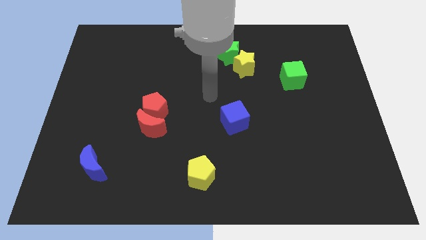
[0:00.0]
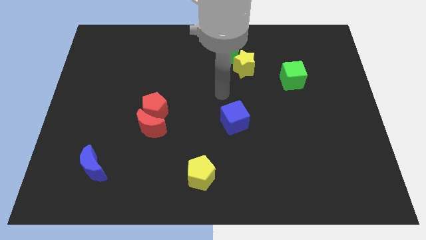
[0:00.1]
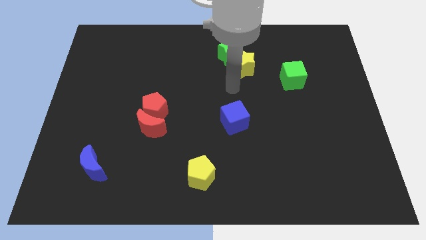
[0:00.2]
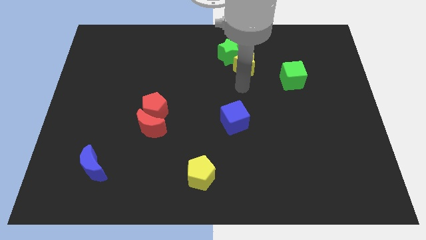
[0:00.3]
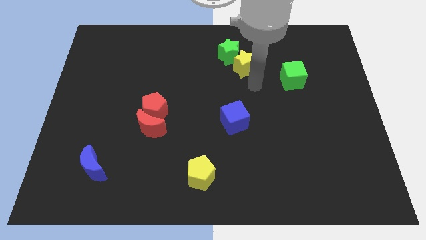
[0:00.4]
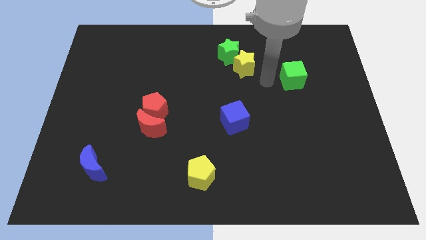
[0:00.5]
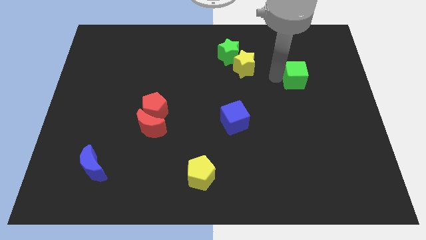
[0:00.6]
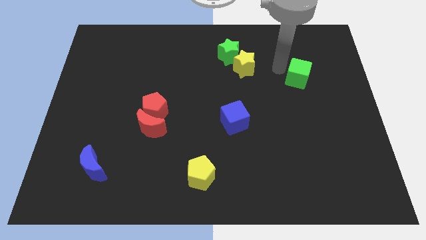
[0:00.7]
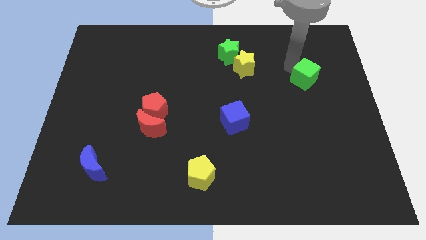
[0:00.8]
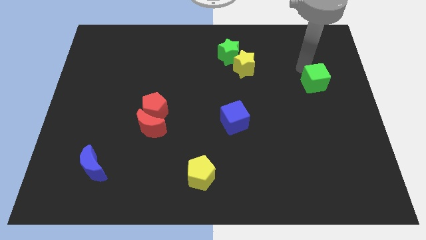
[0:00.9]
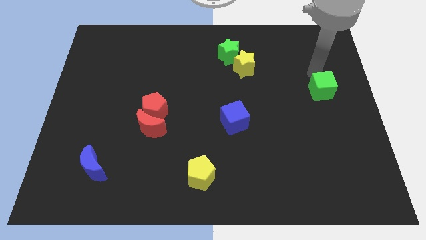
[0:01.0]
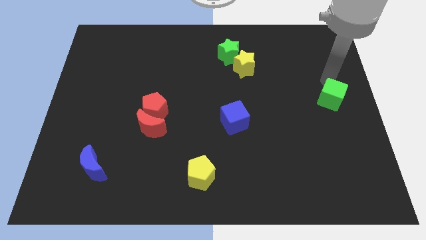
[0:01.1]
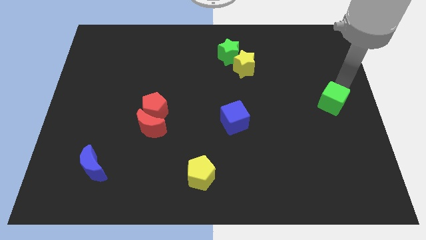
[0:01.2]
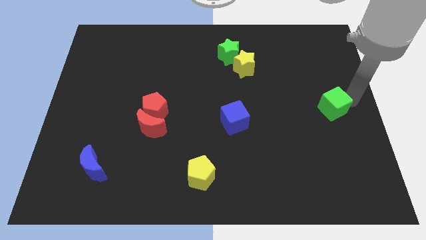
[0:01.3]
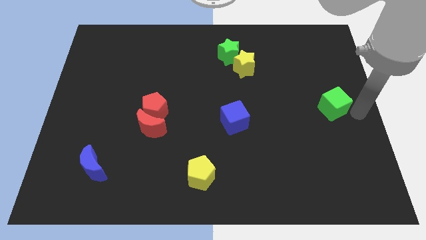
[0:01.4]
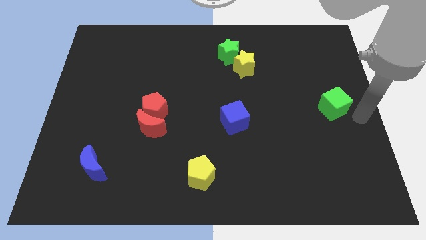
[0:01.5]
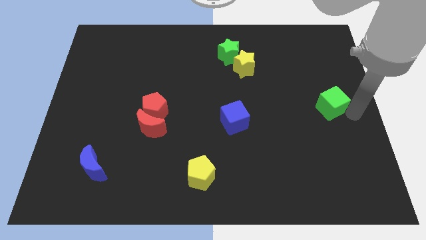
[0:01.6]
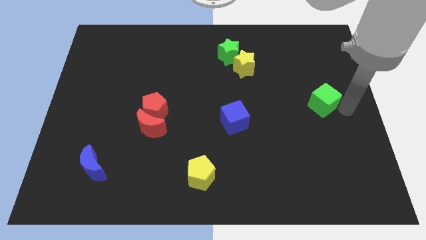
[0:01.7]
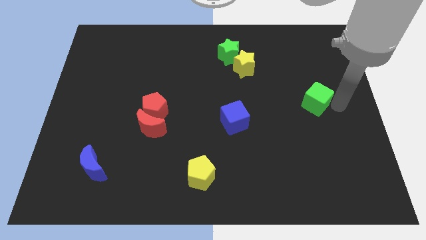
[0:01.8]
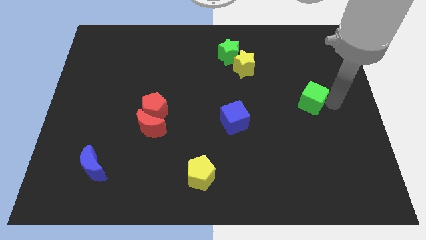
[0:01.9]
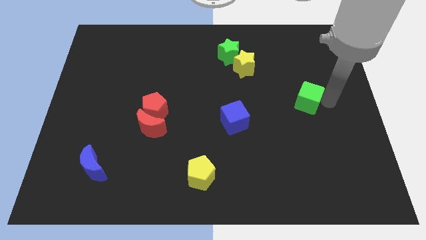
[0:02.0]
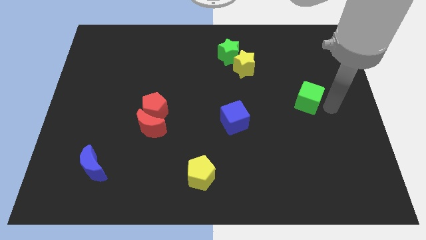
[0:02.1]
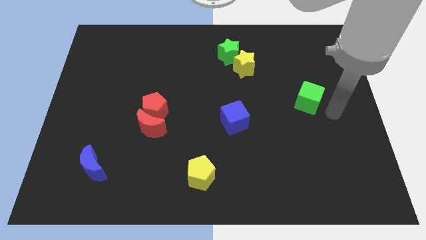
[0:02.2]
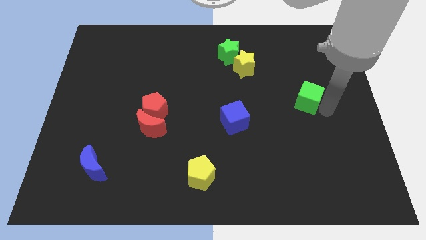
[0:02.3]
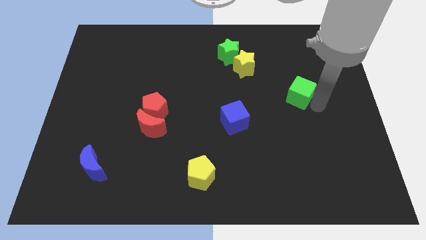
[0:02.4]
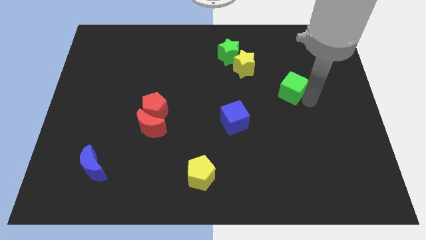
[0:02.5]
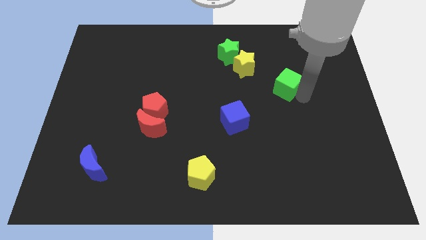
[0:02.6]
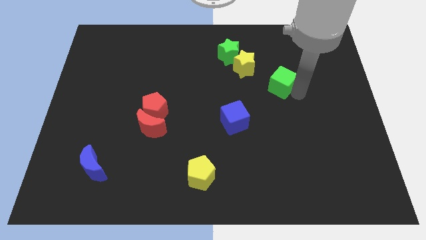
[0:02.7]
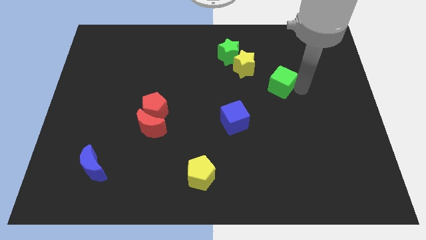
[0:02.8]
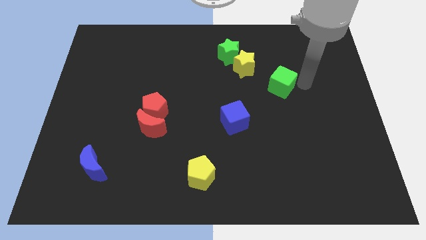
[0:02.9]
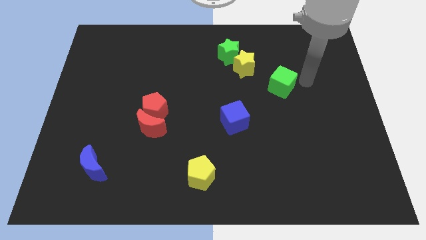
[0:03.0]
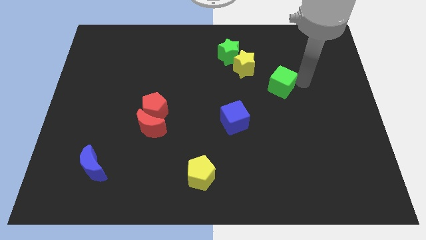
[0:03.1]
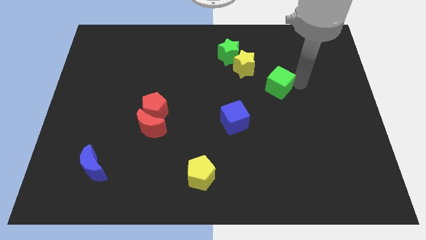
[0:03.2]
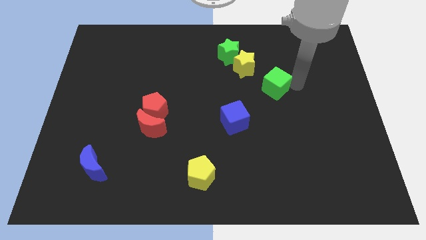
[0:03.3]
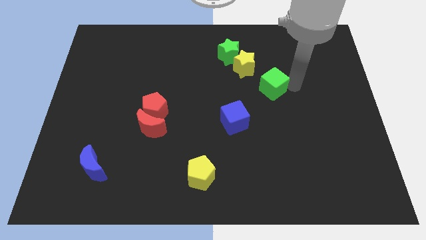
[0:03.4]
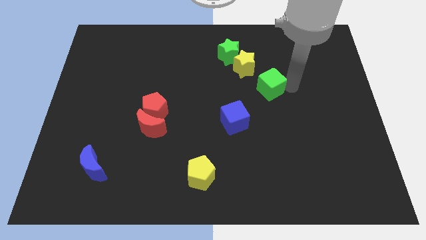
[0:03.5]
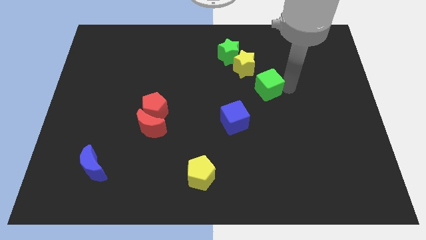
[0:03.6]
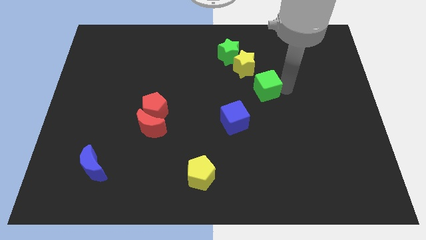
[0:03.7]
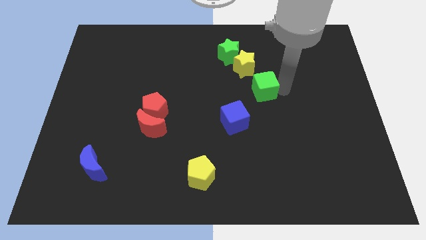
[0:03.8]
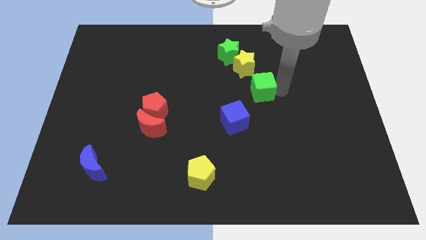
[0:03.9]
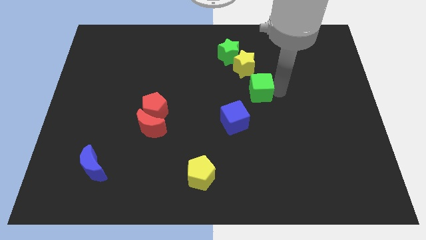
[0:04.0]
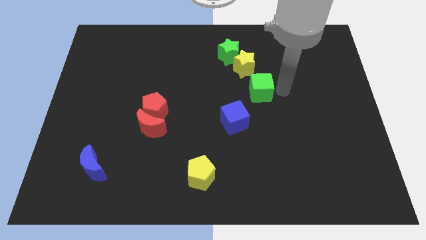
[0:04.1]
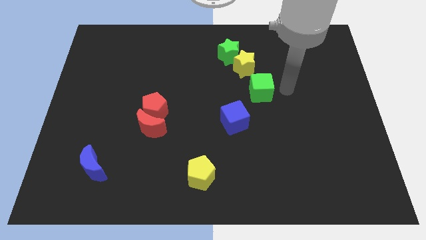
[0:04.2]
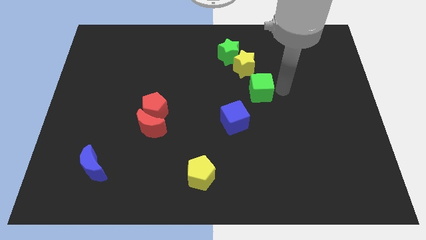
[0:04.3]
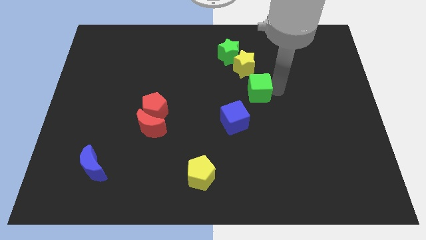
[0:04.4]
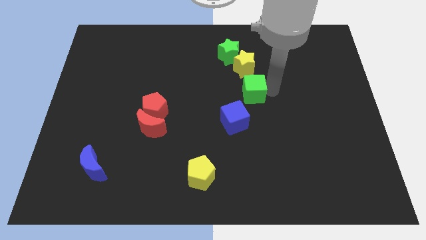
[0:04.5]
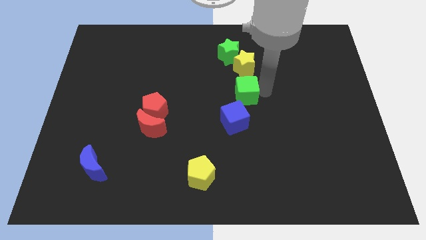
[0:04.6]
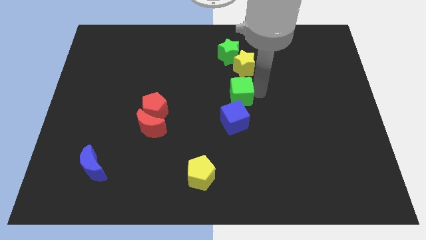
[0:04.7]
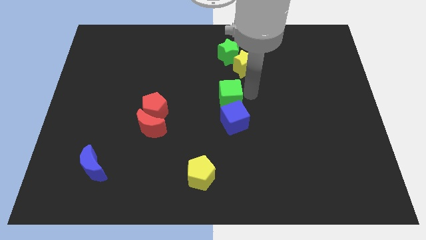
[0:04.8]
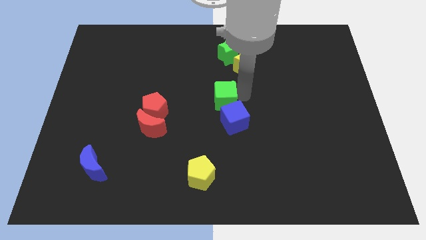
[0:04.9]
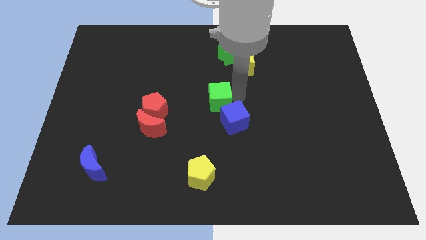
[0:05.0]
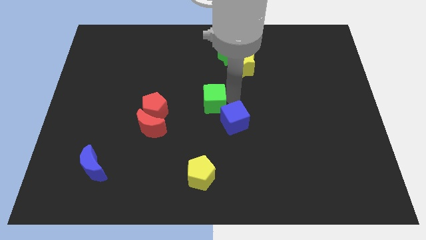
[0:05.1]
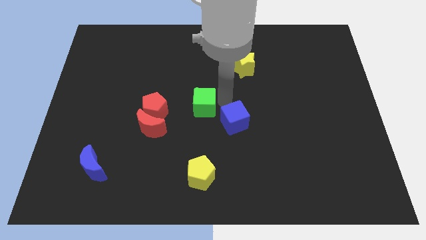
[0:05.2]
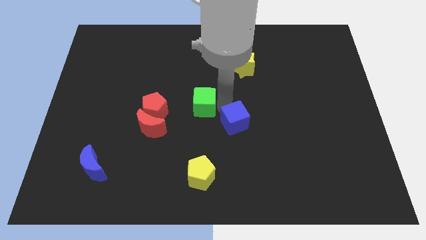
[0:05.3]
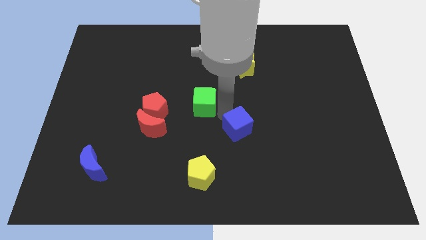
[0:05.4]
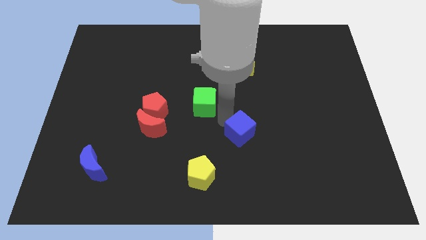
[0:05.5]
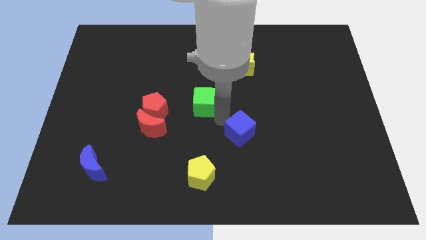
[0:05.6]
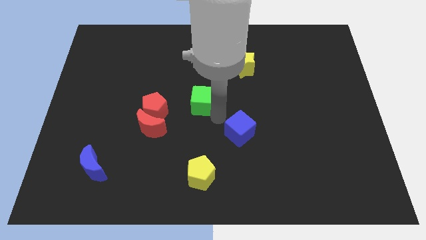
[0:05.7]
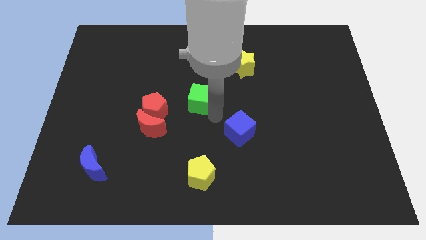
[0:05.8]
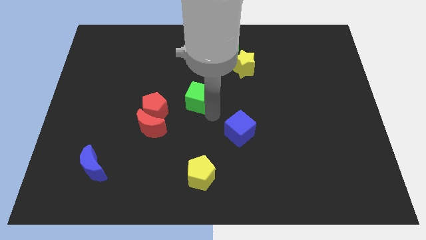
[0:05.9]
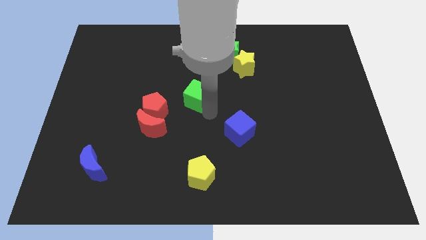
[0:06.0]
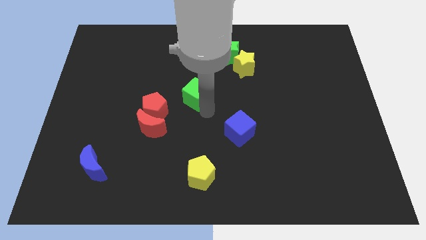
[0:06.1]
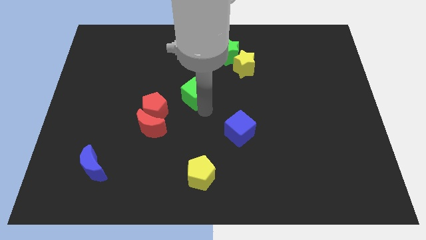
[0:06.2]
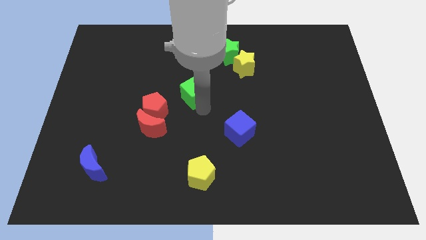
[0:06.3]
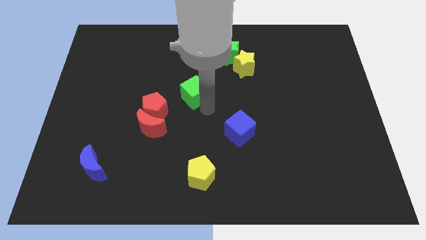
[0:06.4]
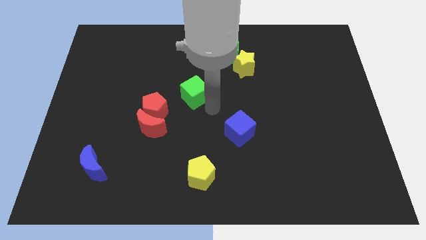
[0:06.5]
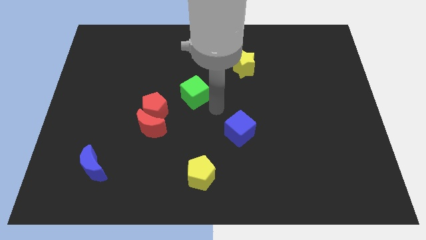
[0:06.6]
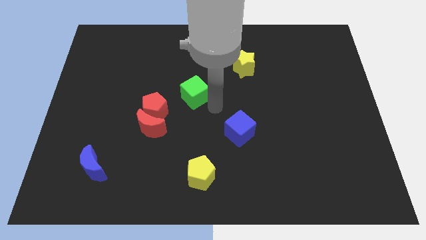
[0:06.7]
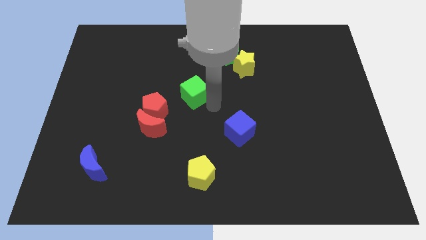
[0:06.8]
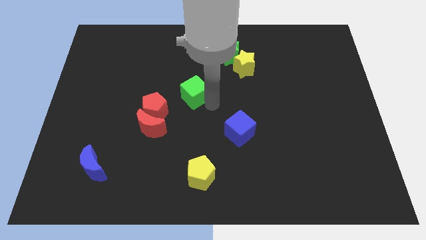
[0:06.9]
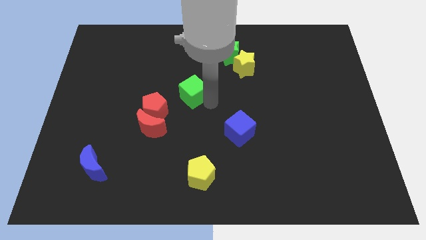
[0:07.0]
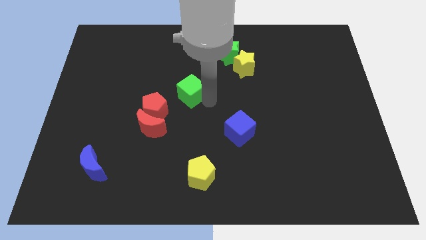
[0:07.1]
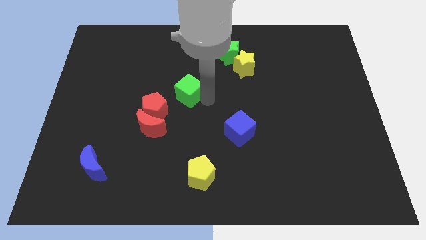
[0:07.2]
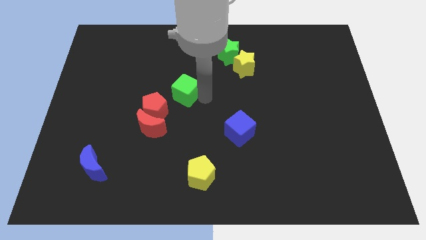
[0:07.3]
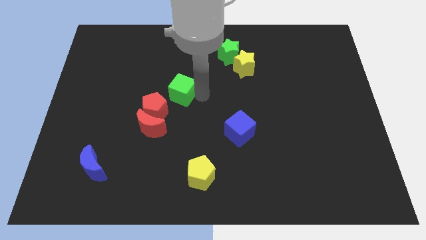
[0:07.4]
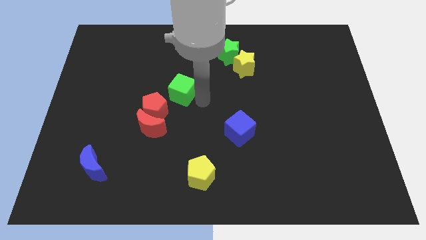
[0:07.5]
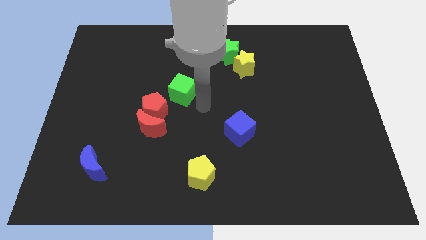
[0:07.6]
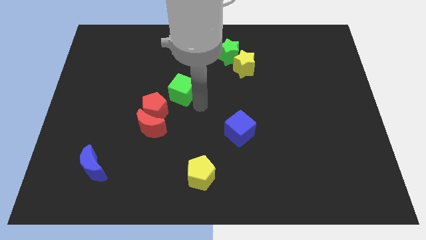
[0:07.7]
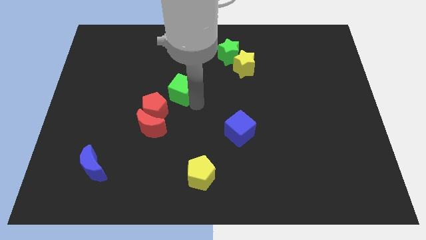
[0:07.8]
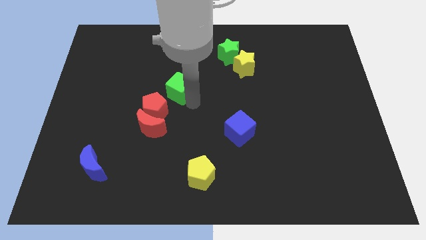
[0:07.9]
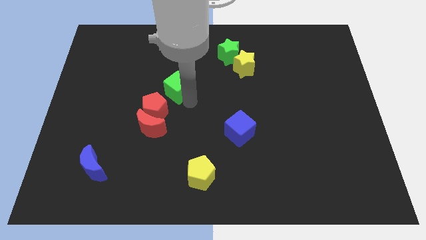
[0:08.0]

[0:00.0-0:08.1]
push the green cube above the red pentagon
